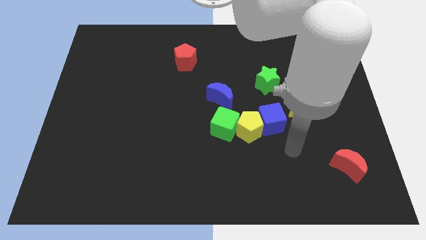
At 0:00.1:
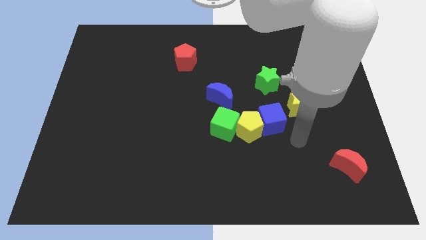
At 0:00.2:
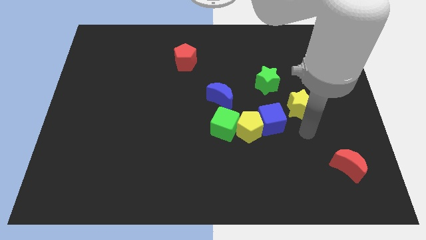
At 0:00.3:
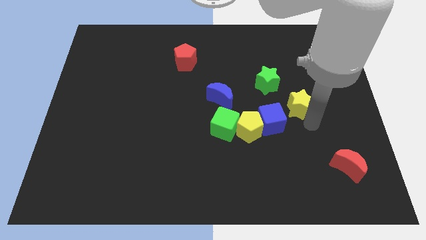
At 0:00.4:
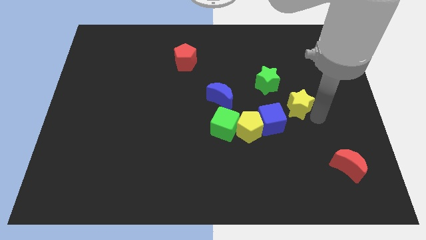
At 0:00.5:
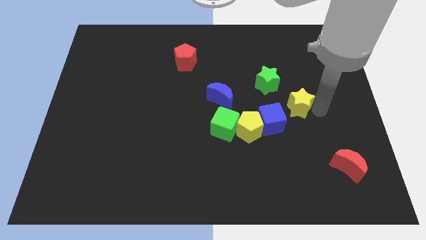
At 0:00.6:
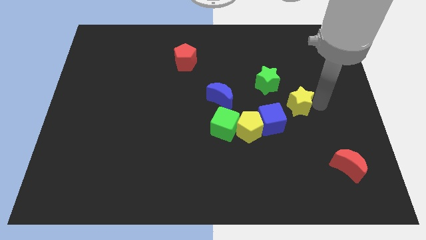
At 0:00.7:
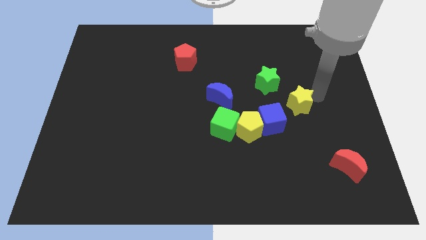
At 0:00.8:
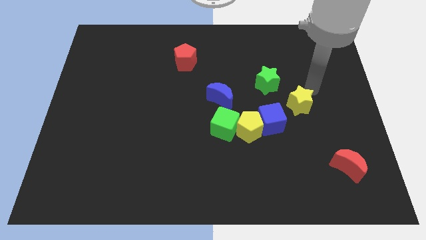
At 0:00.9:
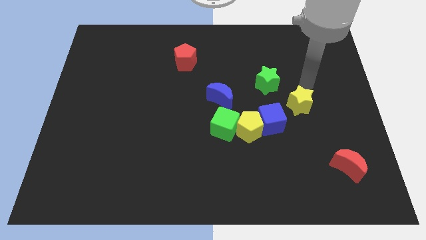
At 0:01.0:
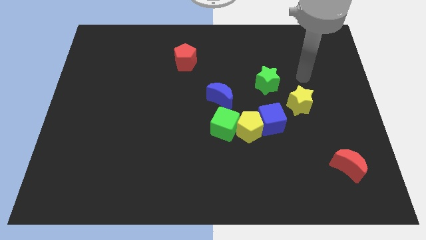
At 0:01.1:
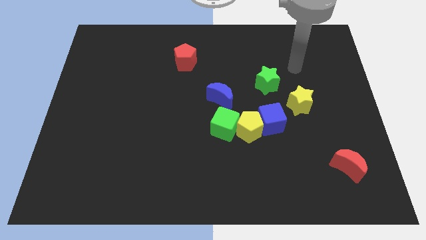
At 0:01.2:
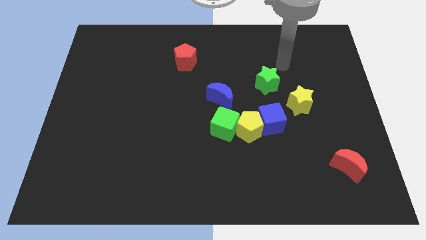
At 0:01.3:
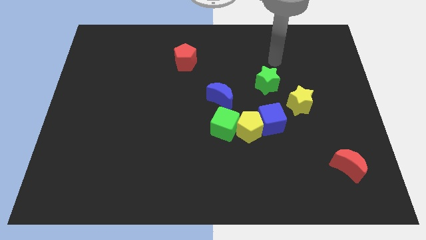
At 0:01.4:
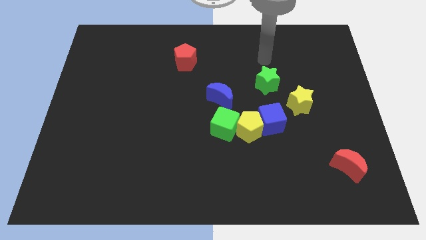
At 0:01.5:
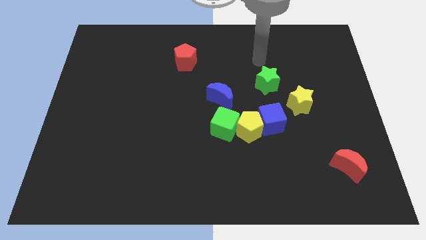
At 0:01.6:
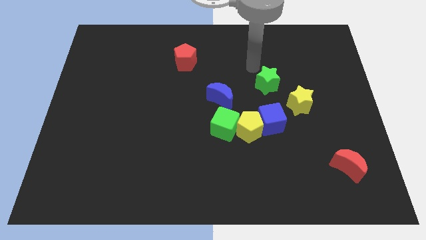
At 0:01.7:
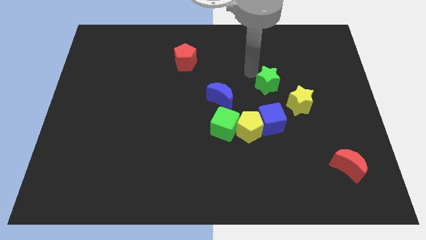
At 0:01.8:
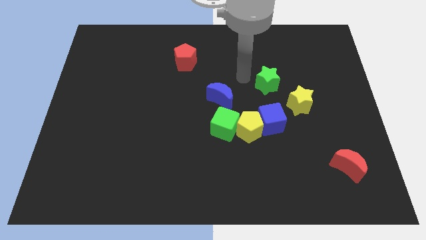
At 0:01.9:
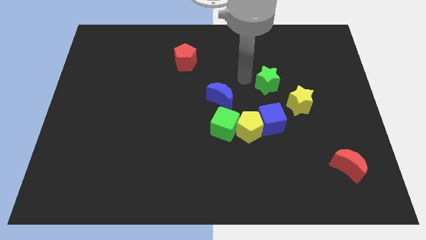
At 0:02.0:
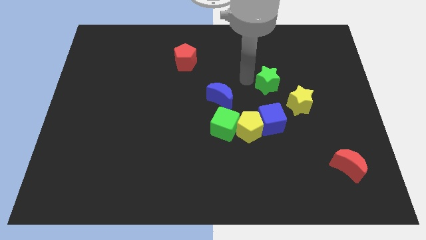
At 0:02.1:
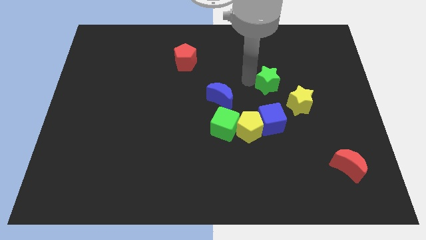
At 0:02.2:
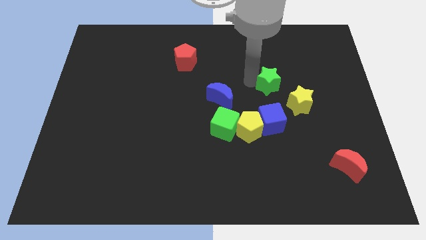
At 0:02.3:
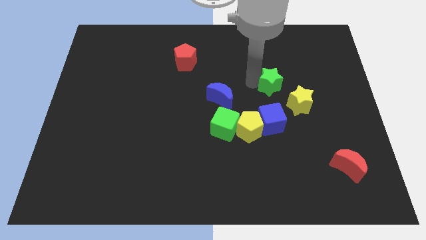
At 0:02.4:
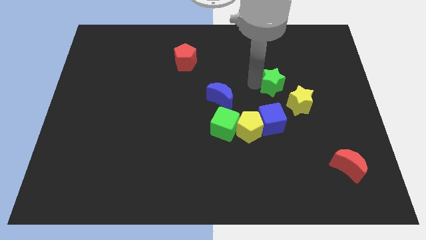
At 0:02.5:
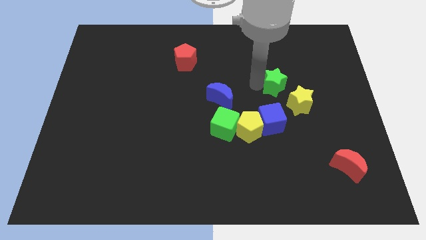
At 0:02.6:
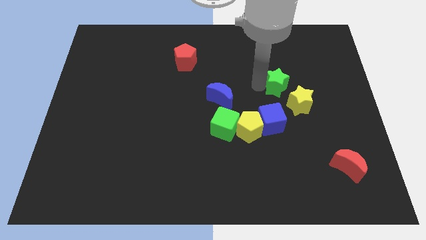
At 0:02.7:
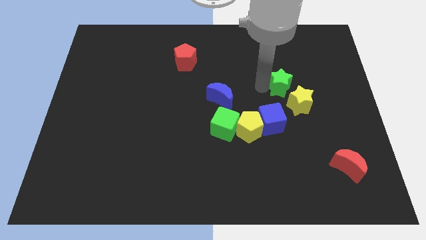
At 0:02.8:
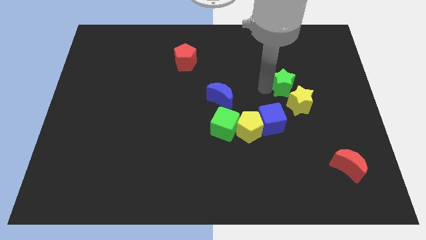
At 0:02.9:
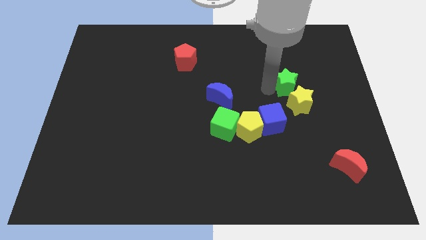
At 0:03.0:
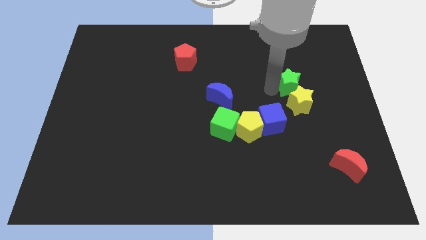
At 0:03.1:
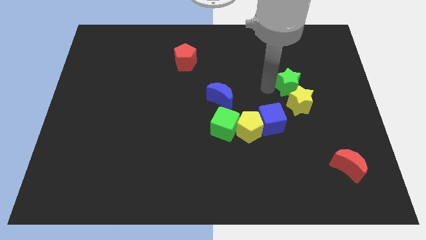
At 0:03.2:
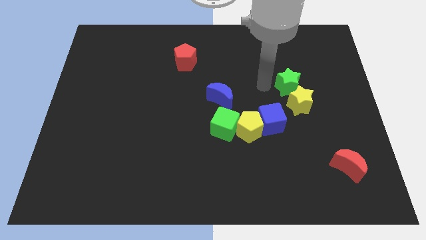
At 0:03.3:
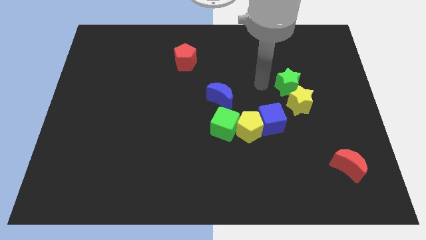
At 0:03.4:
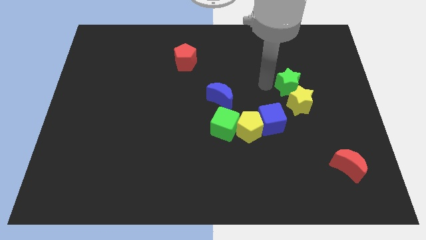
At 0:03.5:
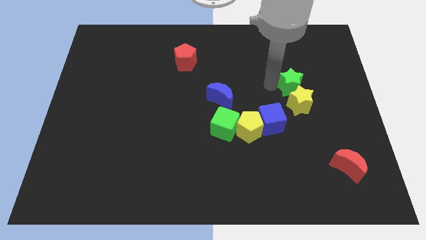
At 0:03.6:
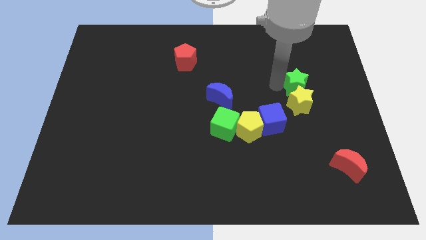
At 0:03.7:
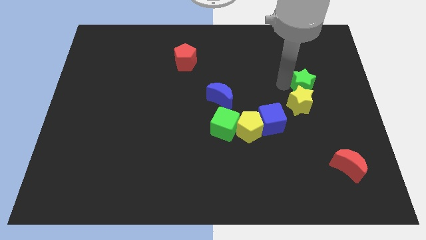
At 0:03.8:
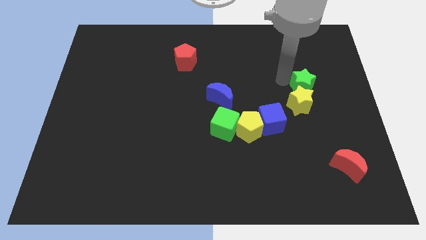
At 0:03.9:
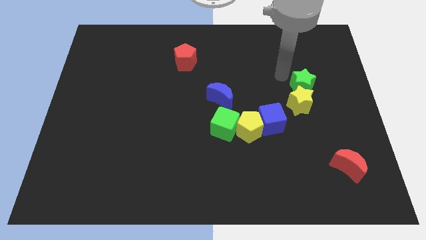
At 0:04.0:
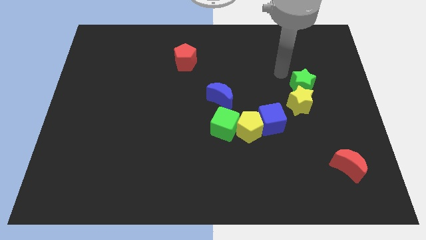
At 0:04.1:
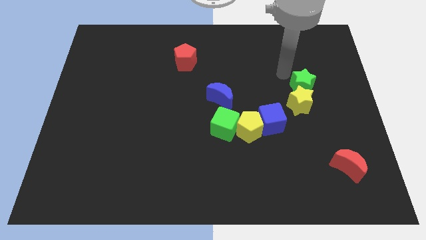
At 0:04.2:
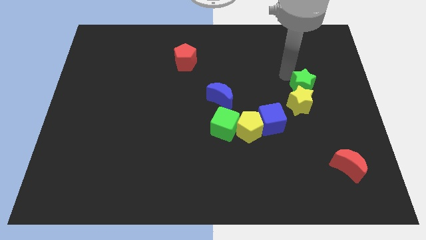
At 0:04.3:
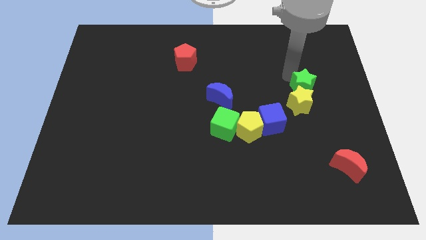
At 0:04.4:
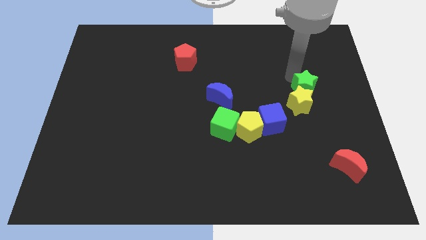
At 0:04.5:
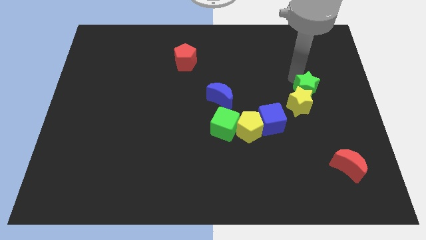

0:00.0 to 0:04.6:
push the green star slightly downwards and right diagonally

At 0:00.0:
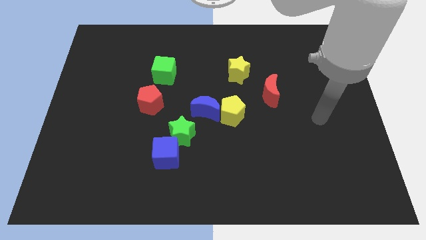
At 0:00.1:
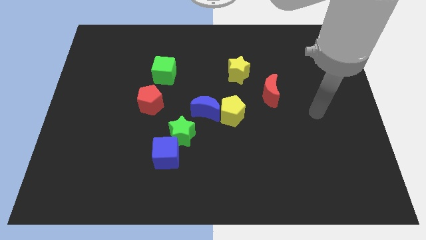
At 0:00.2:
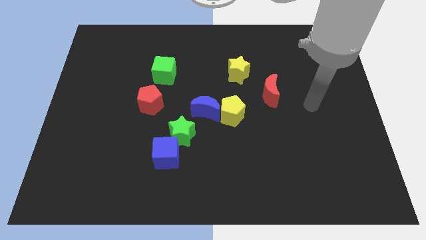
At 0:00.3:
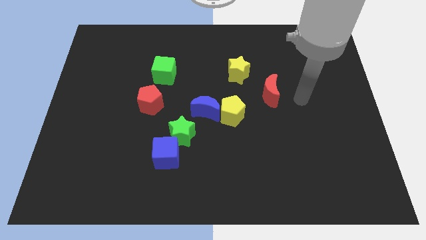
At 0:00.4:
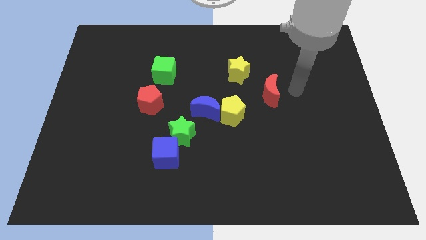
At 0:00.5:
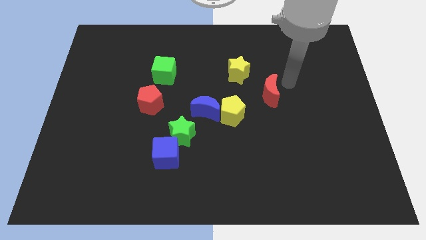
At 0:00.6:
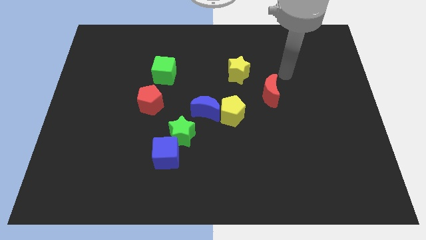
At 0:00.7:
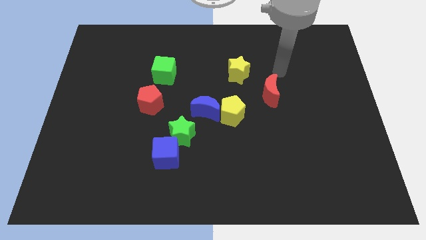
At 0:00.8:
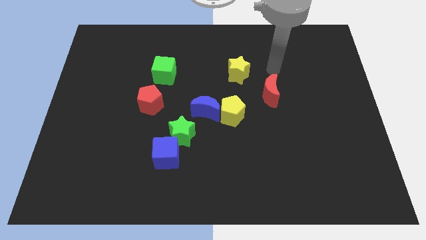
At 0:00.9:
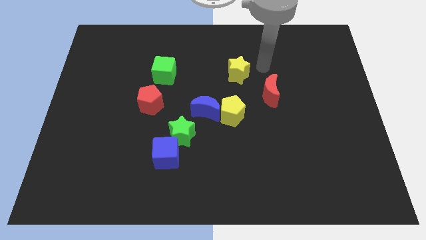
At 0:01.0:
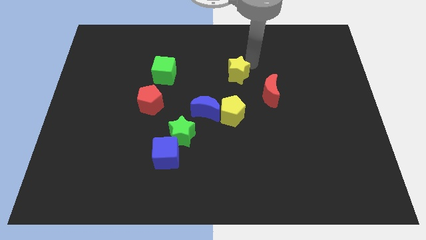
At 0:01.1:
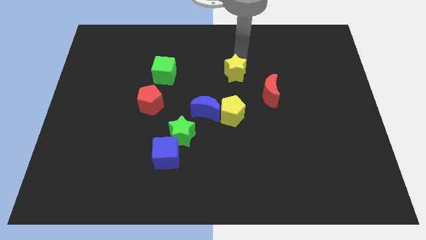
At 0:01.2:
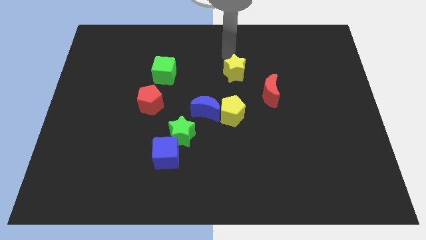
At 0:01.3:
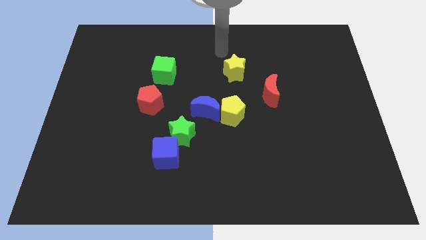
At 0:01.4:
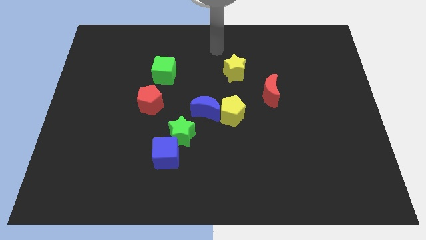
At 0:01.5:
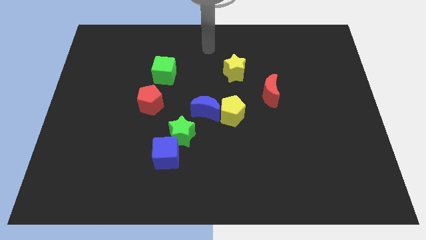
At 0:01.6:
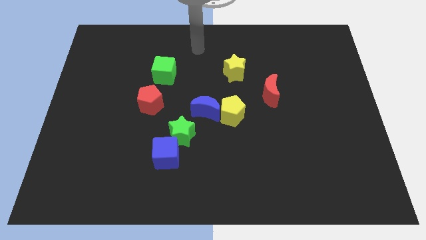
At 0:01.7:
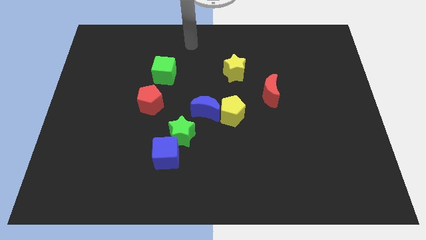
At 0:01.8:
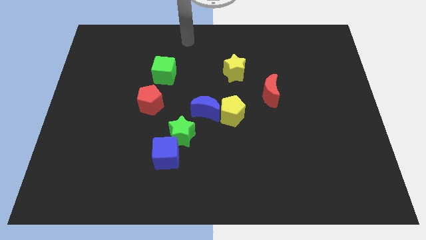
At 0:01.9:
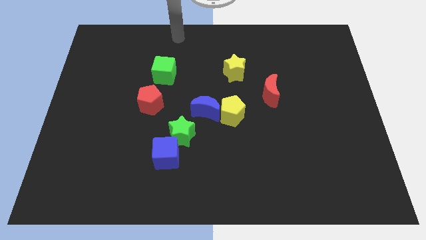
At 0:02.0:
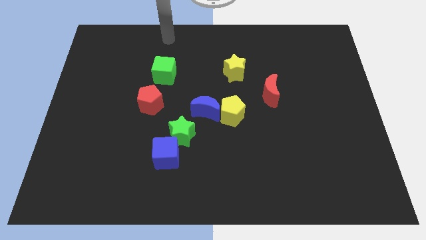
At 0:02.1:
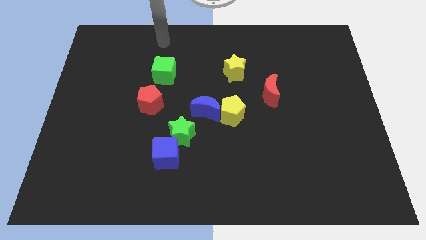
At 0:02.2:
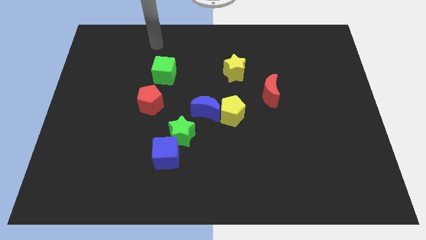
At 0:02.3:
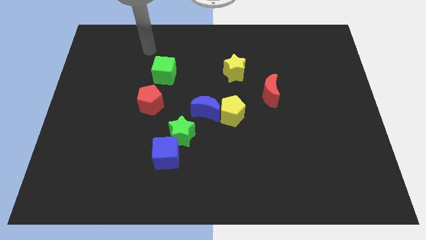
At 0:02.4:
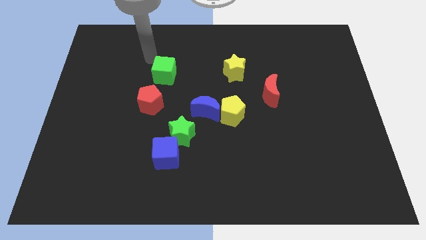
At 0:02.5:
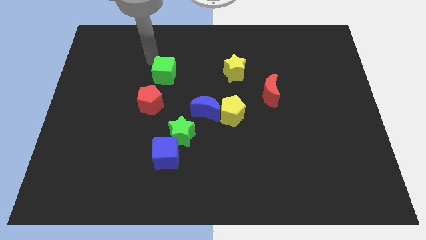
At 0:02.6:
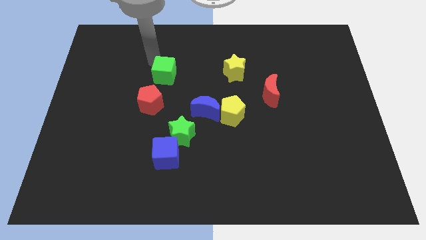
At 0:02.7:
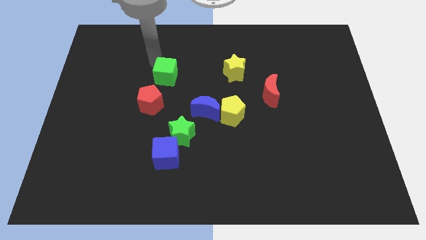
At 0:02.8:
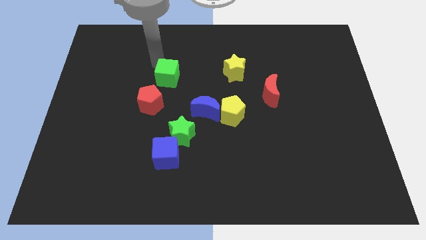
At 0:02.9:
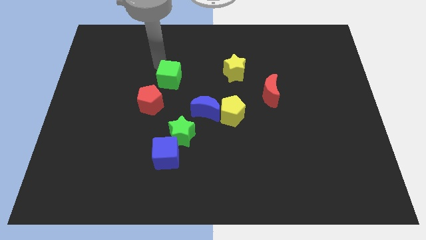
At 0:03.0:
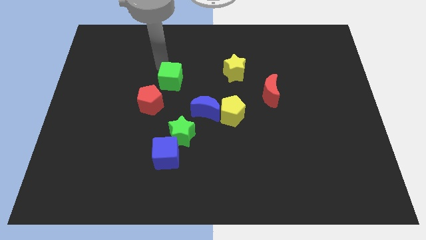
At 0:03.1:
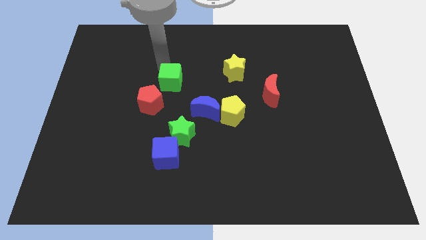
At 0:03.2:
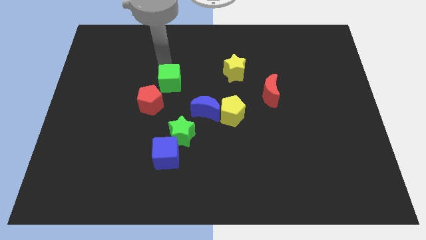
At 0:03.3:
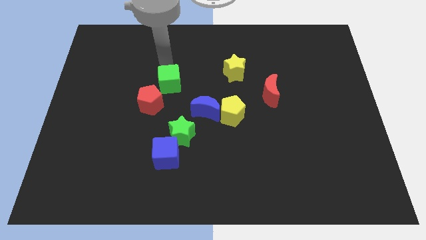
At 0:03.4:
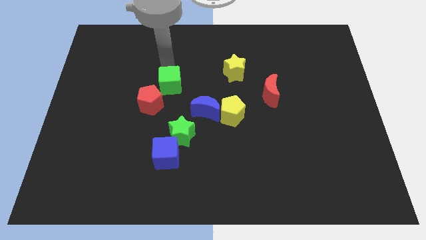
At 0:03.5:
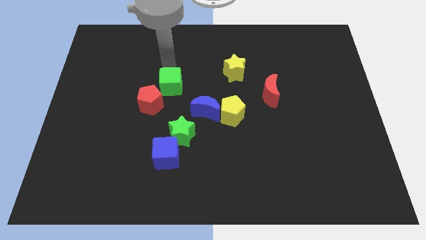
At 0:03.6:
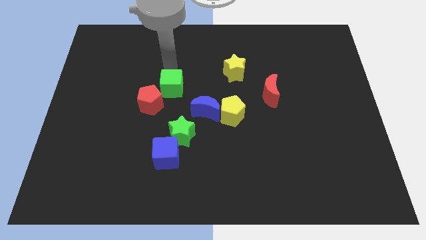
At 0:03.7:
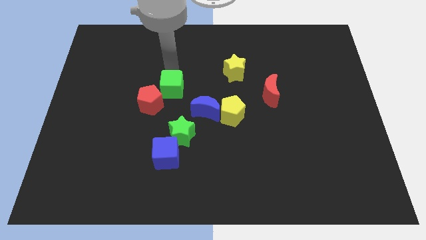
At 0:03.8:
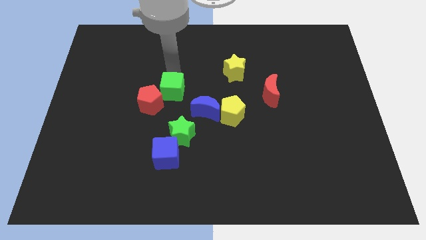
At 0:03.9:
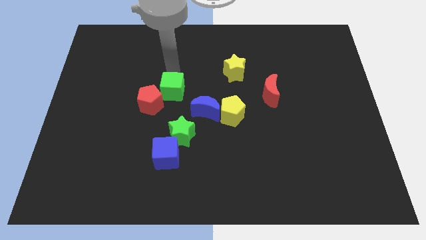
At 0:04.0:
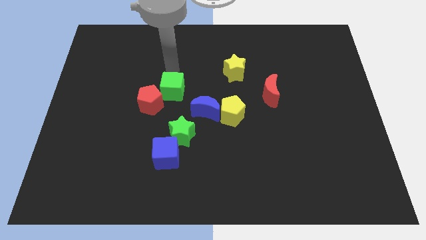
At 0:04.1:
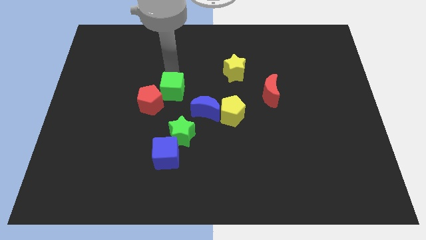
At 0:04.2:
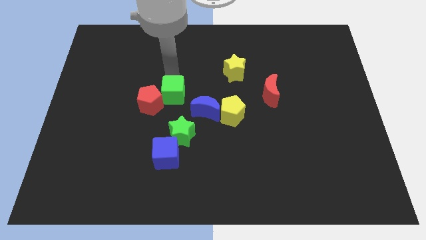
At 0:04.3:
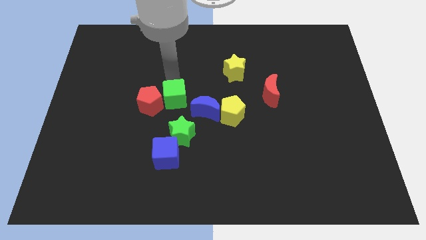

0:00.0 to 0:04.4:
slide the green cube a bit downwards
